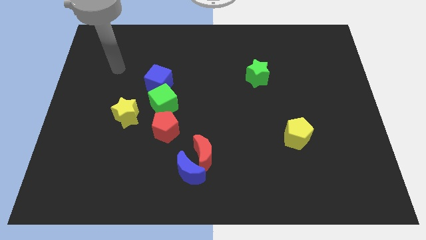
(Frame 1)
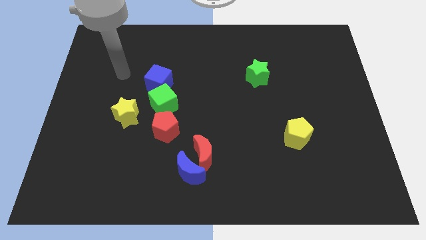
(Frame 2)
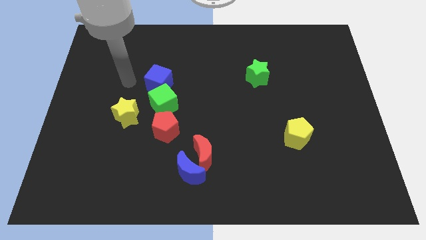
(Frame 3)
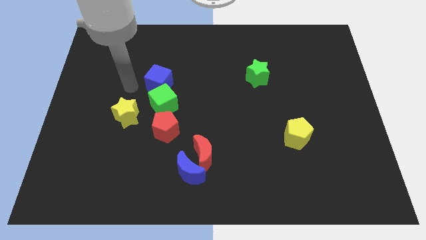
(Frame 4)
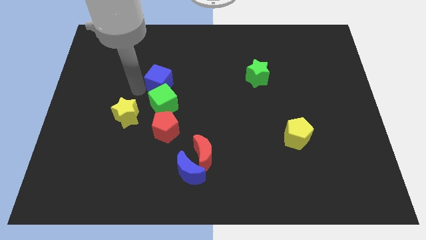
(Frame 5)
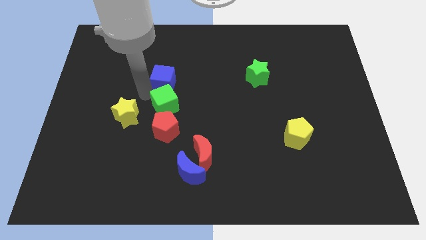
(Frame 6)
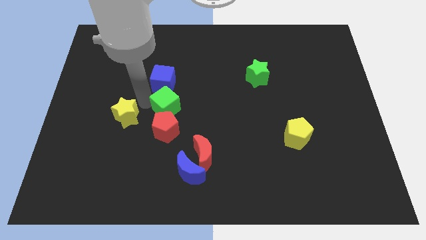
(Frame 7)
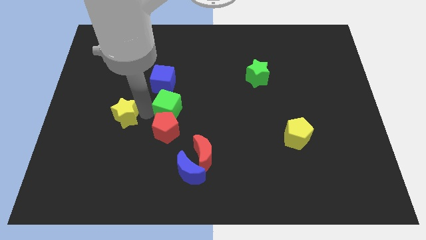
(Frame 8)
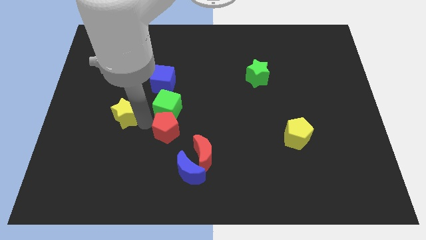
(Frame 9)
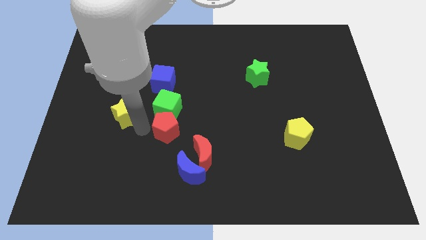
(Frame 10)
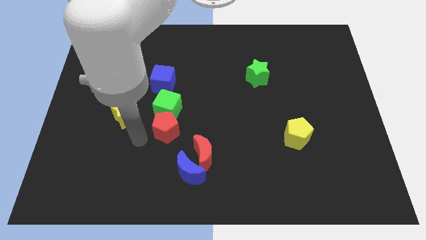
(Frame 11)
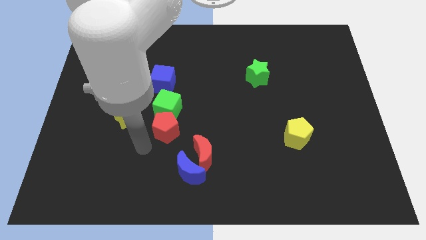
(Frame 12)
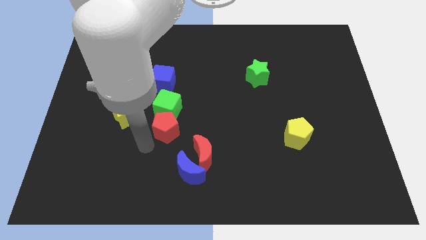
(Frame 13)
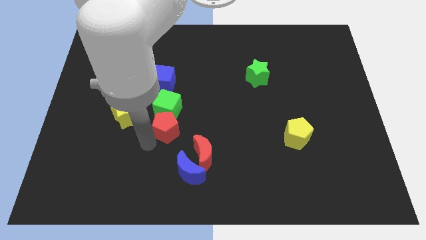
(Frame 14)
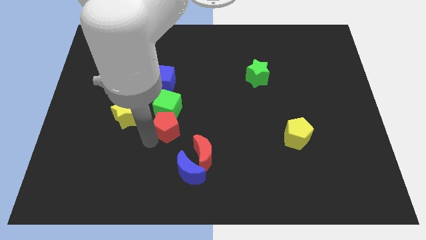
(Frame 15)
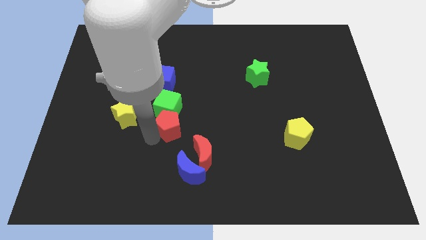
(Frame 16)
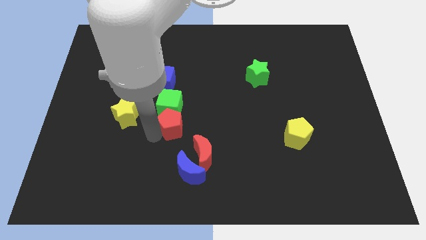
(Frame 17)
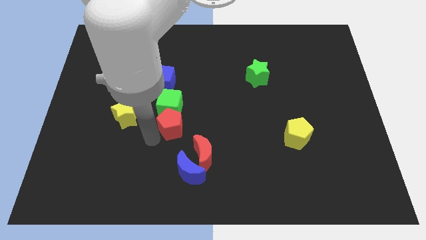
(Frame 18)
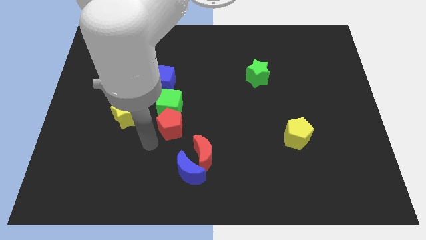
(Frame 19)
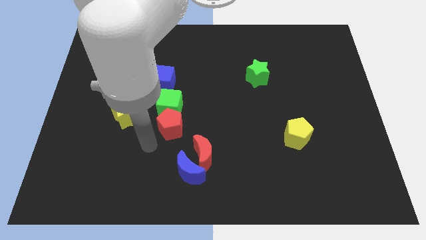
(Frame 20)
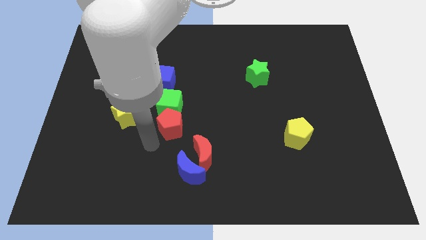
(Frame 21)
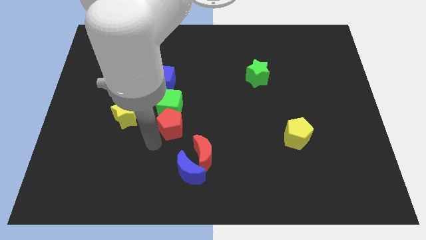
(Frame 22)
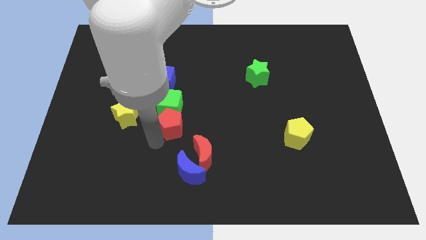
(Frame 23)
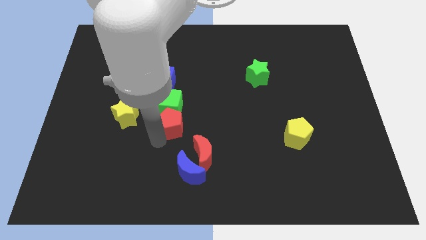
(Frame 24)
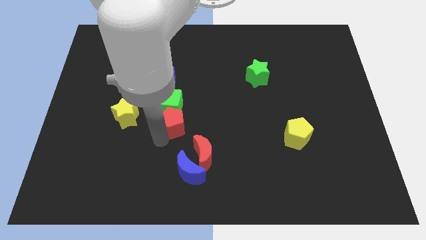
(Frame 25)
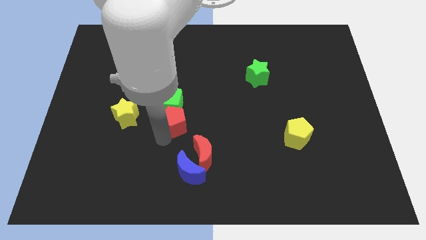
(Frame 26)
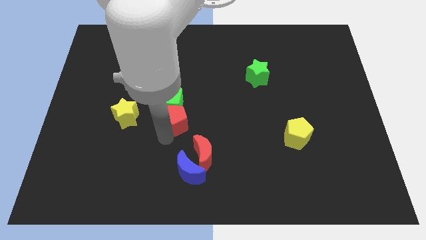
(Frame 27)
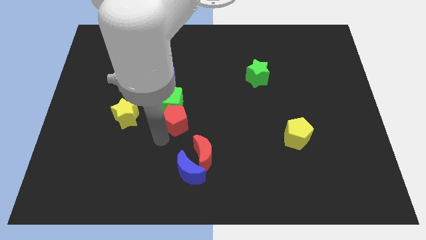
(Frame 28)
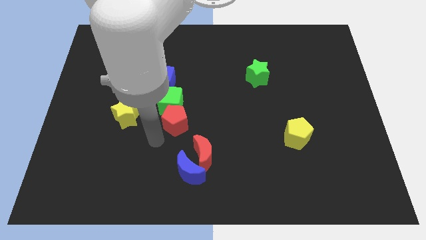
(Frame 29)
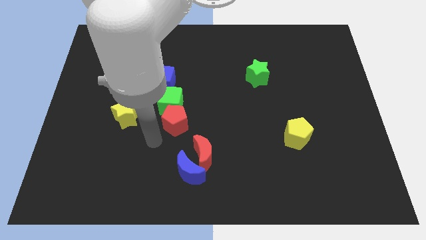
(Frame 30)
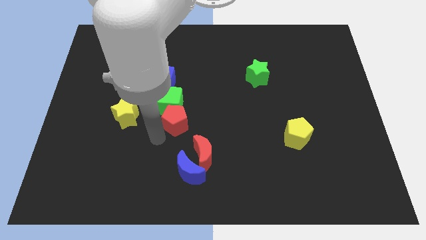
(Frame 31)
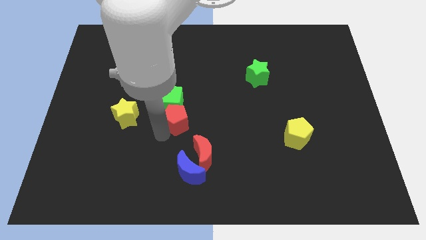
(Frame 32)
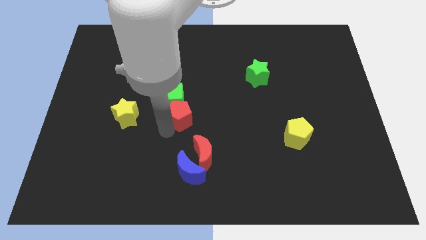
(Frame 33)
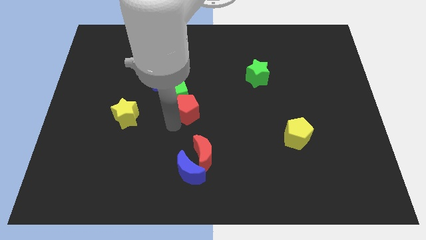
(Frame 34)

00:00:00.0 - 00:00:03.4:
slide the red pentagon slightly upwards and then to the right

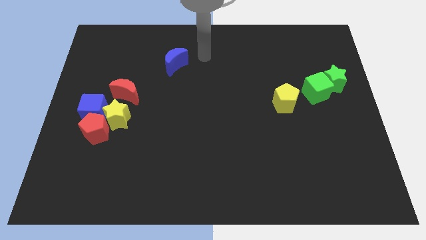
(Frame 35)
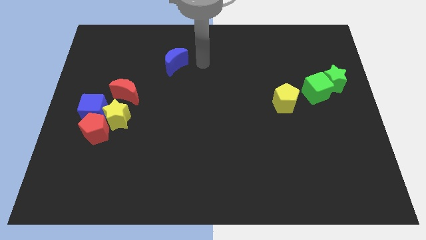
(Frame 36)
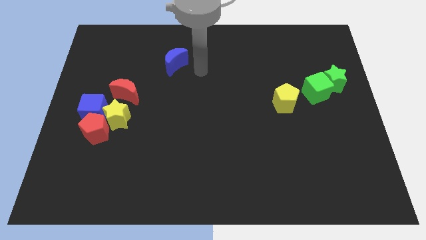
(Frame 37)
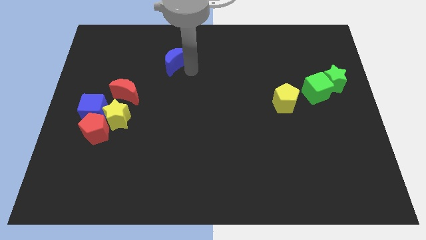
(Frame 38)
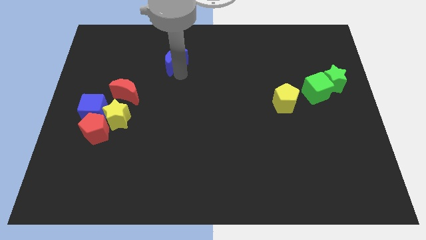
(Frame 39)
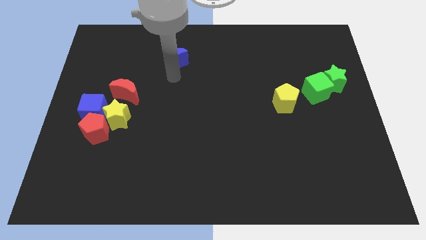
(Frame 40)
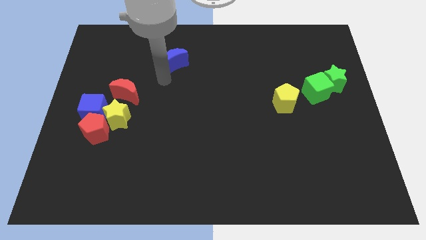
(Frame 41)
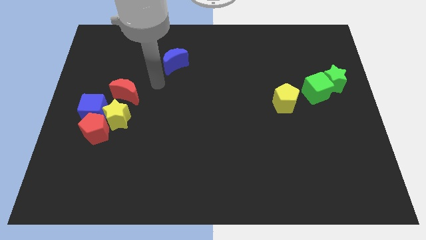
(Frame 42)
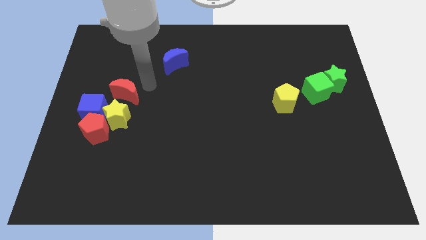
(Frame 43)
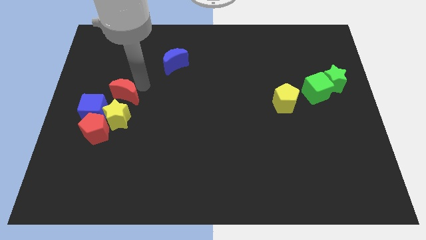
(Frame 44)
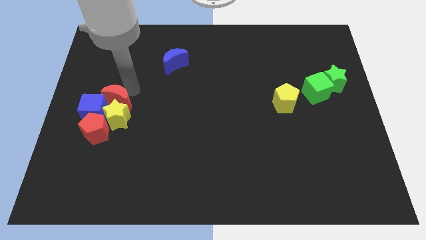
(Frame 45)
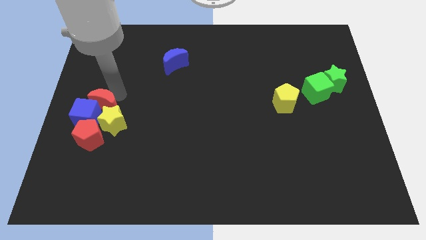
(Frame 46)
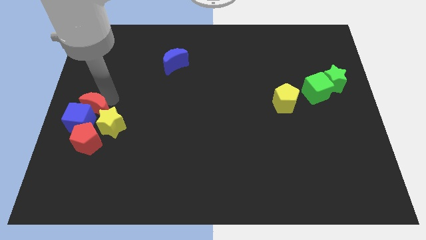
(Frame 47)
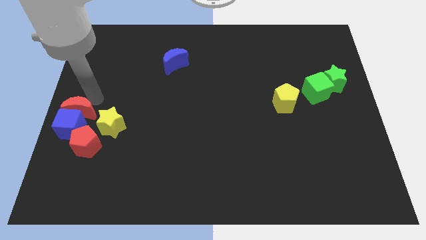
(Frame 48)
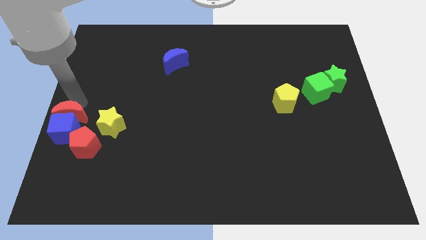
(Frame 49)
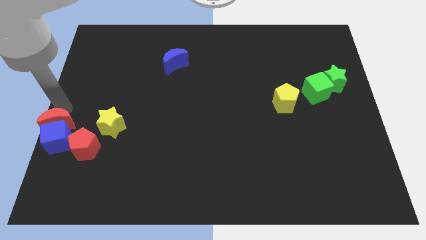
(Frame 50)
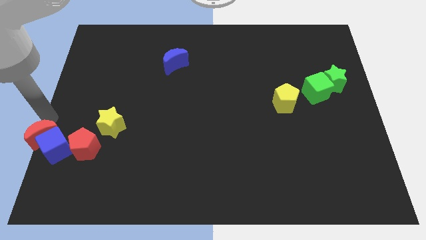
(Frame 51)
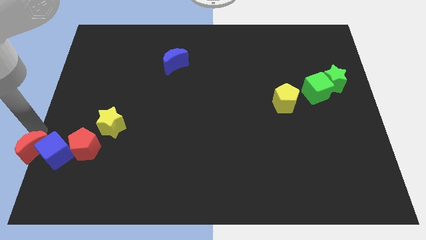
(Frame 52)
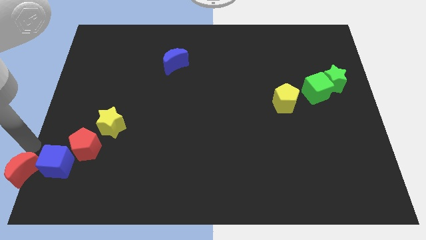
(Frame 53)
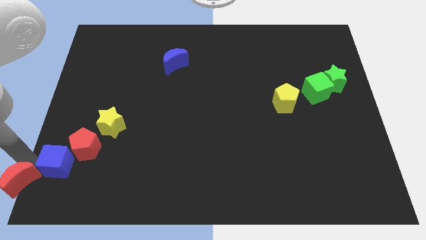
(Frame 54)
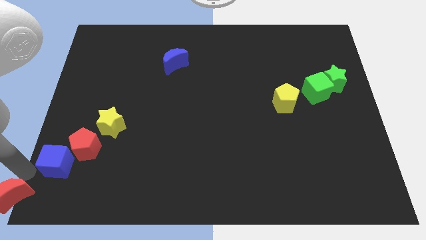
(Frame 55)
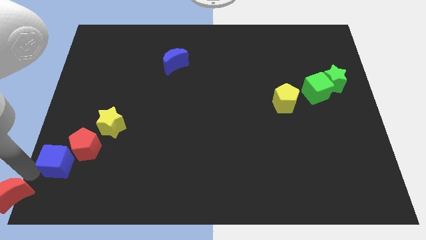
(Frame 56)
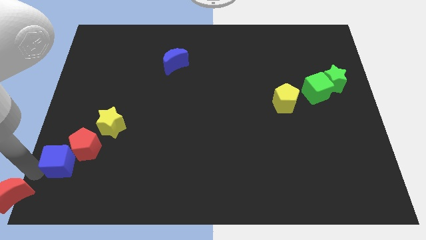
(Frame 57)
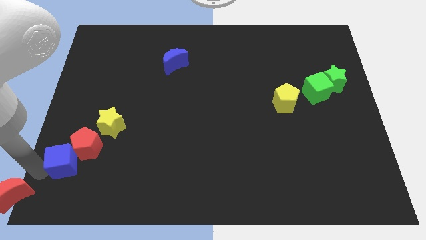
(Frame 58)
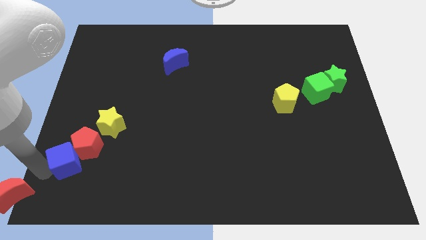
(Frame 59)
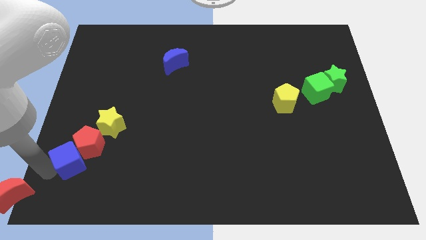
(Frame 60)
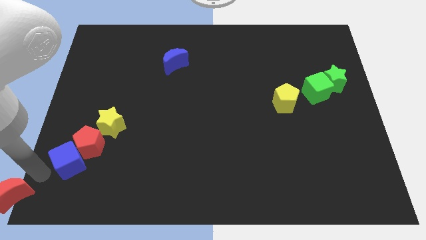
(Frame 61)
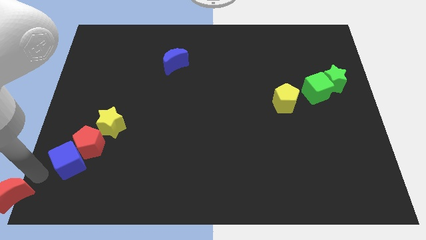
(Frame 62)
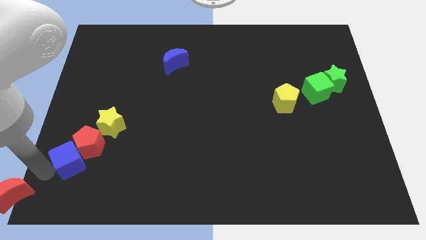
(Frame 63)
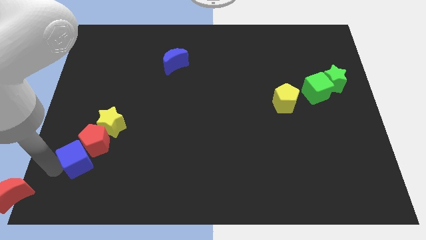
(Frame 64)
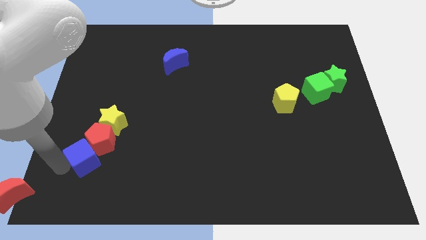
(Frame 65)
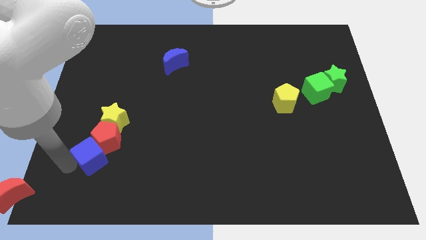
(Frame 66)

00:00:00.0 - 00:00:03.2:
push the blue cube downwards and to the right diagonally slightly

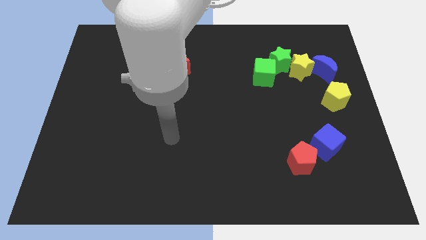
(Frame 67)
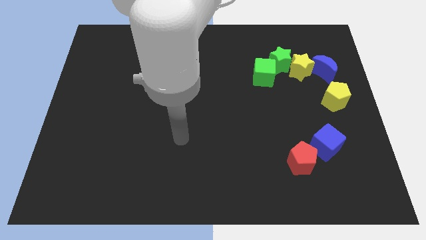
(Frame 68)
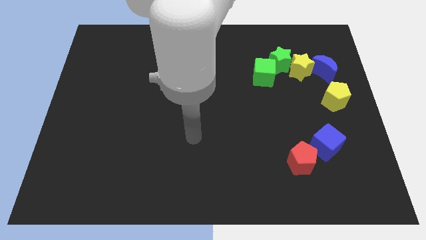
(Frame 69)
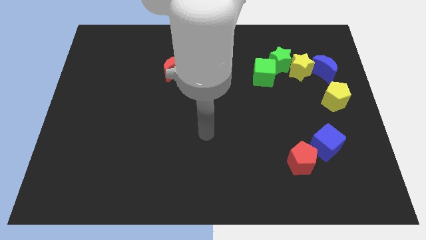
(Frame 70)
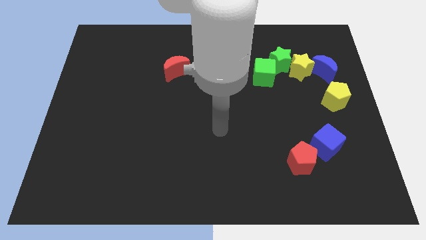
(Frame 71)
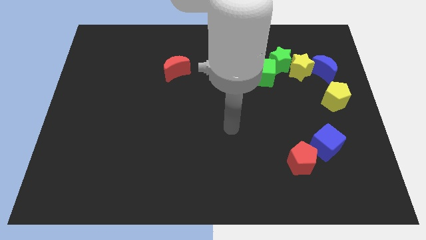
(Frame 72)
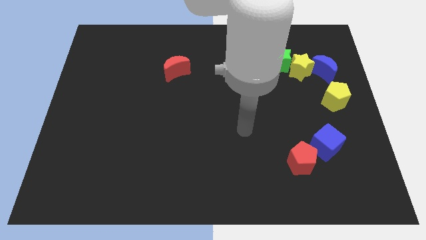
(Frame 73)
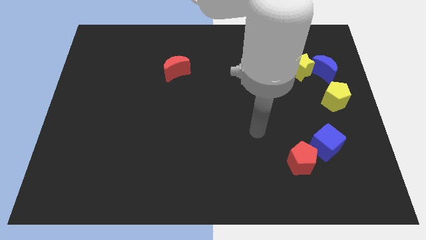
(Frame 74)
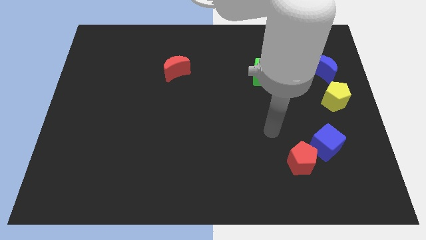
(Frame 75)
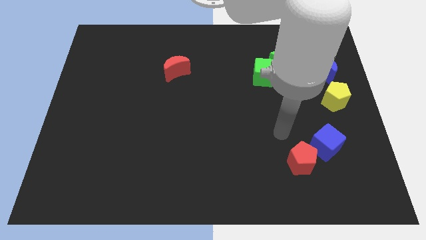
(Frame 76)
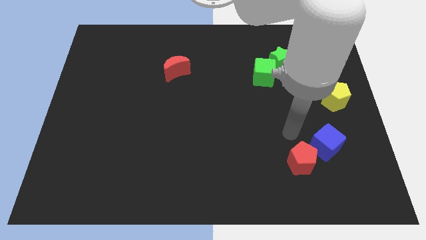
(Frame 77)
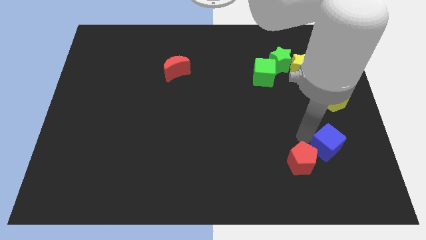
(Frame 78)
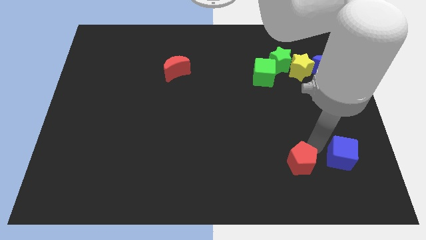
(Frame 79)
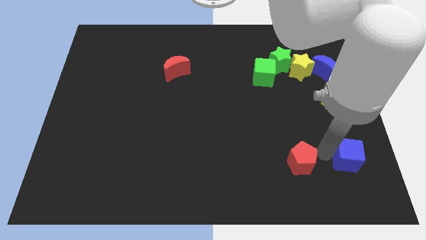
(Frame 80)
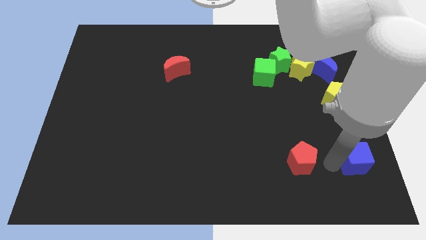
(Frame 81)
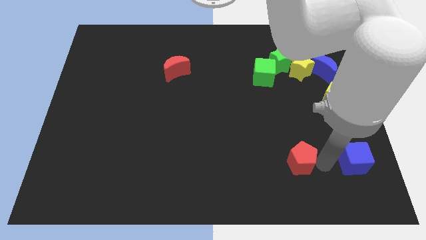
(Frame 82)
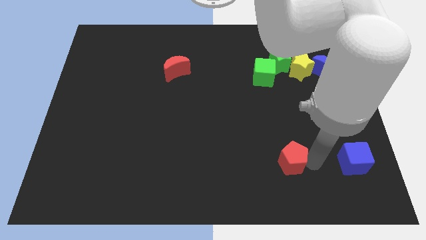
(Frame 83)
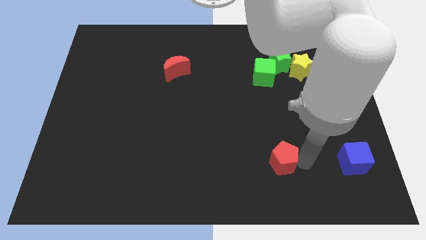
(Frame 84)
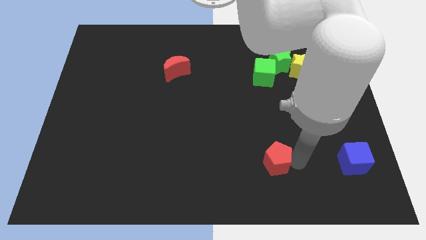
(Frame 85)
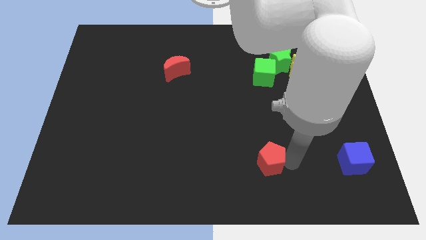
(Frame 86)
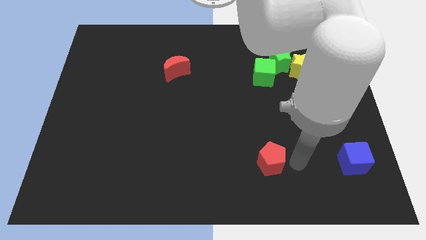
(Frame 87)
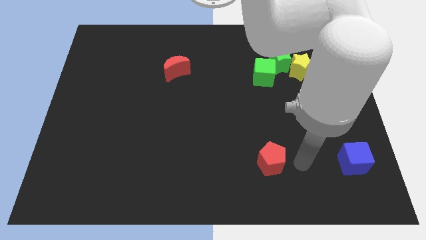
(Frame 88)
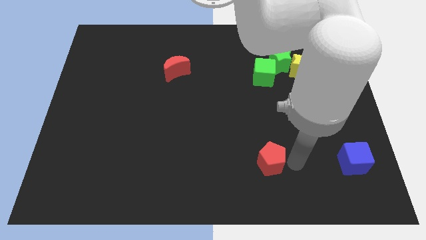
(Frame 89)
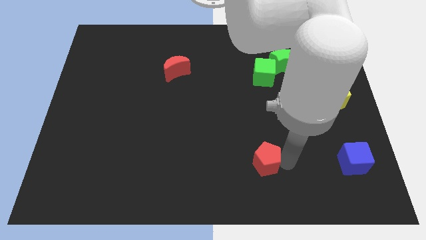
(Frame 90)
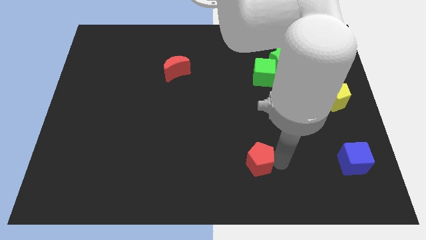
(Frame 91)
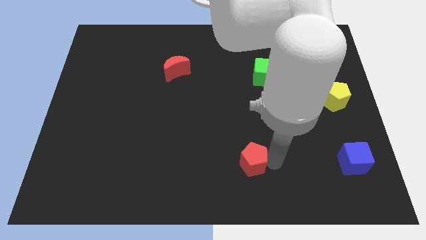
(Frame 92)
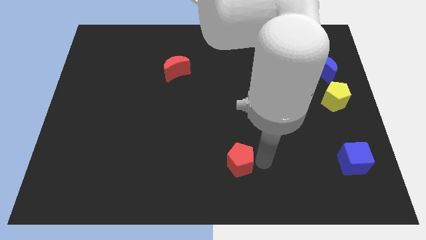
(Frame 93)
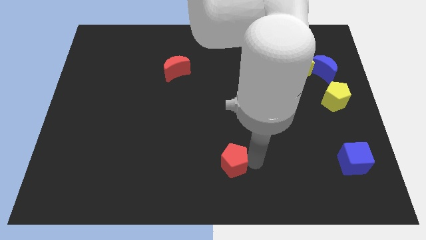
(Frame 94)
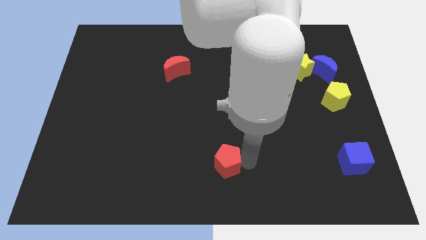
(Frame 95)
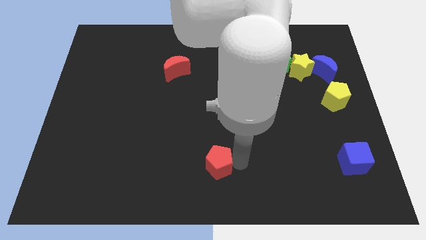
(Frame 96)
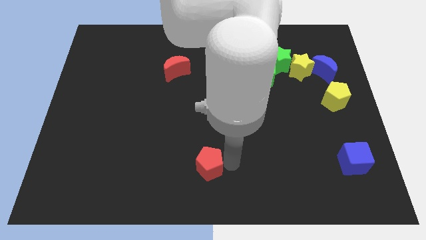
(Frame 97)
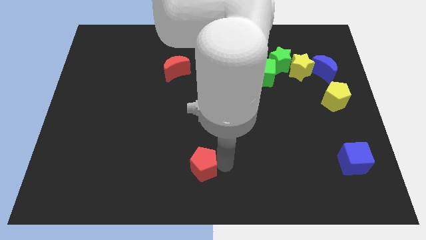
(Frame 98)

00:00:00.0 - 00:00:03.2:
move the red pentagon left
